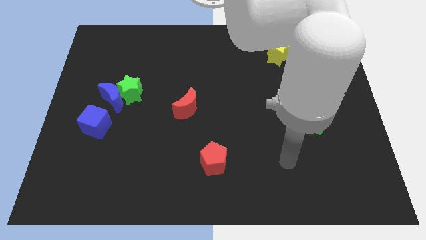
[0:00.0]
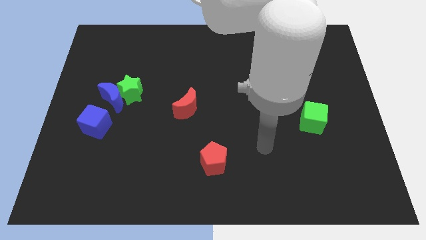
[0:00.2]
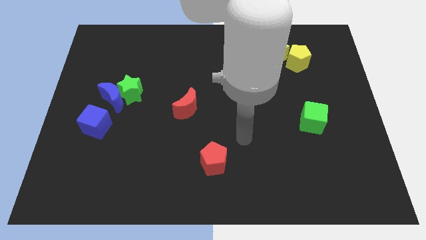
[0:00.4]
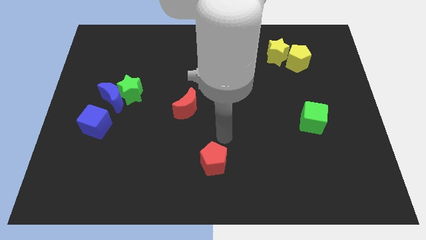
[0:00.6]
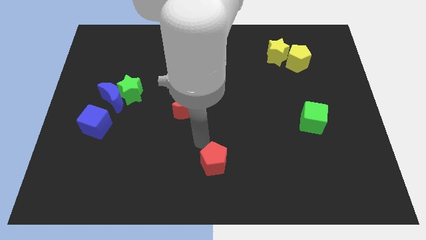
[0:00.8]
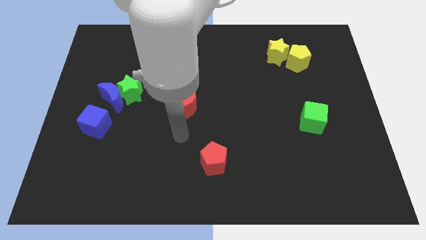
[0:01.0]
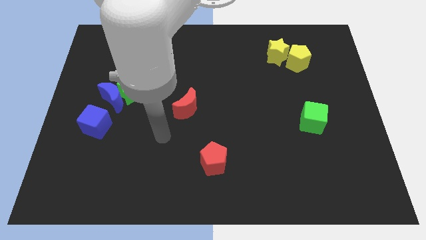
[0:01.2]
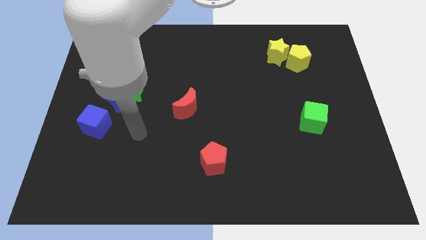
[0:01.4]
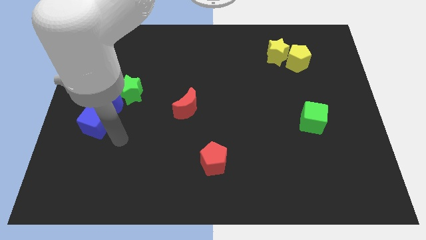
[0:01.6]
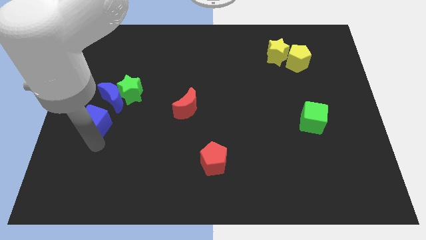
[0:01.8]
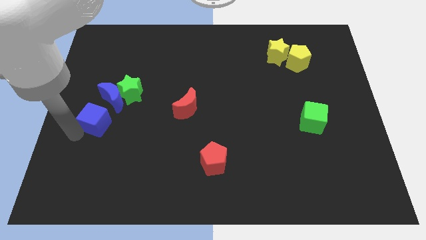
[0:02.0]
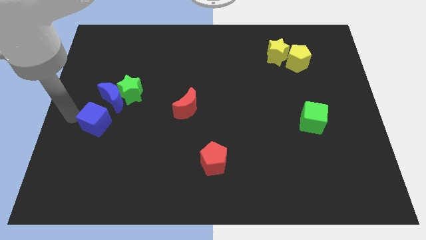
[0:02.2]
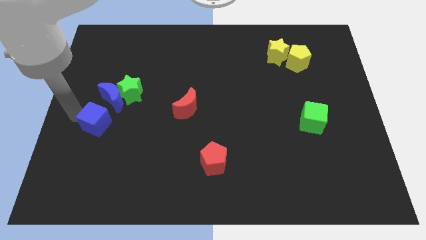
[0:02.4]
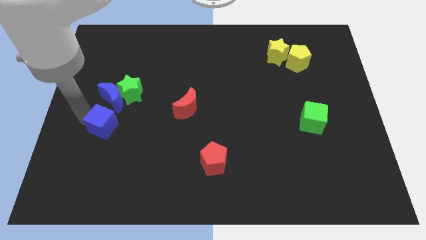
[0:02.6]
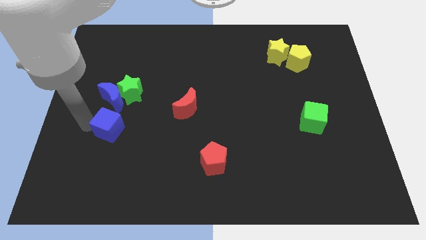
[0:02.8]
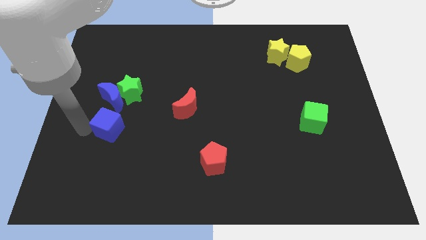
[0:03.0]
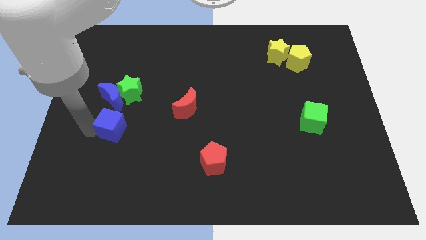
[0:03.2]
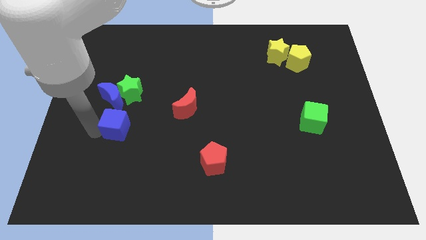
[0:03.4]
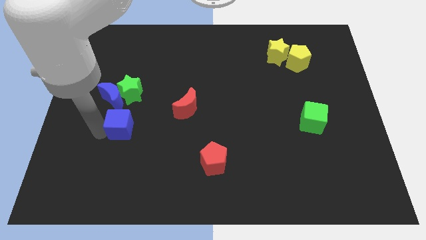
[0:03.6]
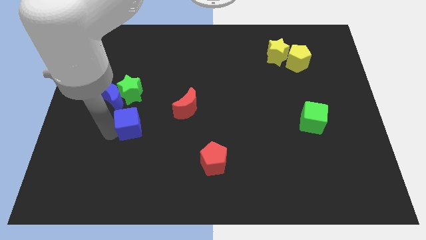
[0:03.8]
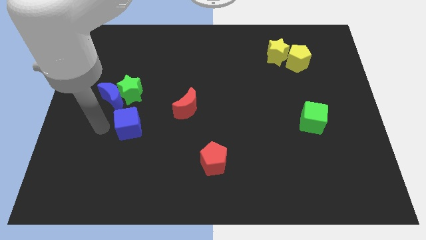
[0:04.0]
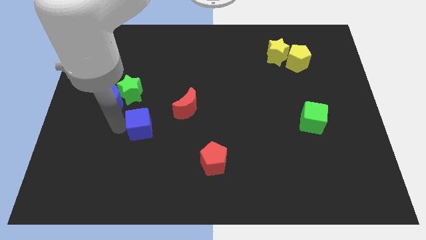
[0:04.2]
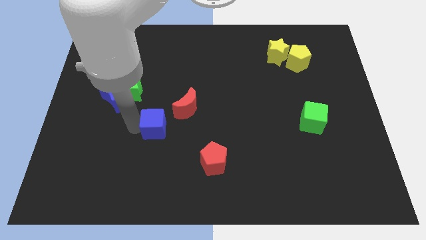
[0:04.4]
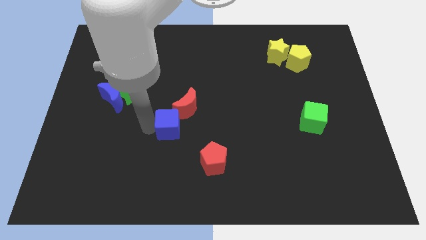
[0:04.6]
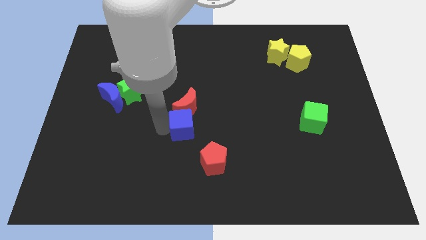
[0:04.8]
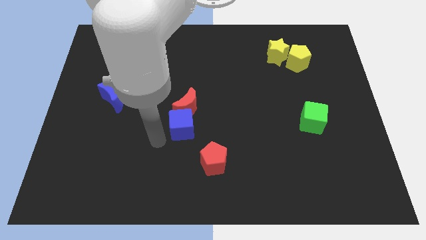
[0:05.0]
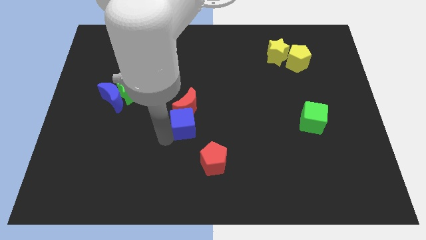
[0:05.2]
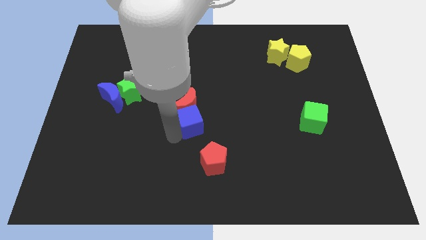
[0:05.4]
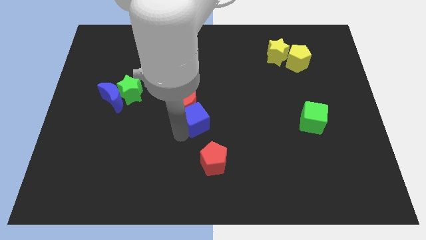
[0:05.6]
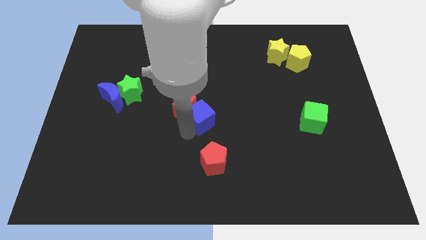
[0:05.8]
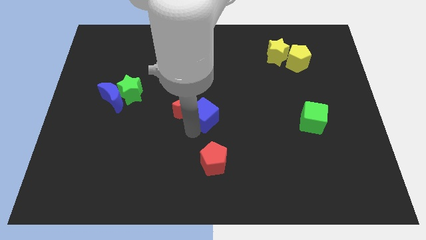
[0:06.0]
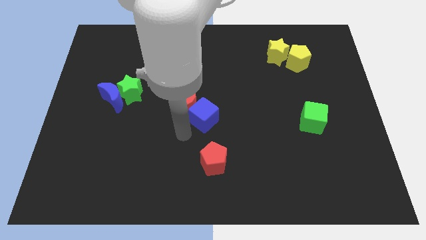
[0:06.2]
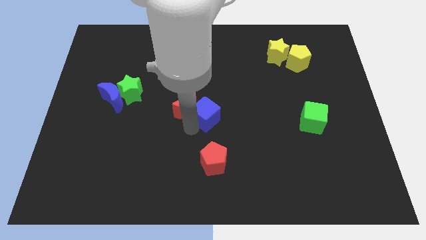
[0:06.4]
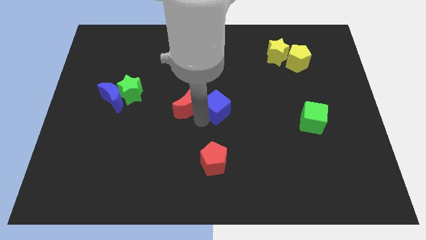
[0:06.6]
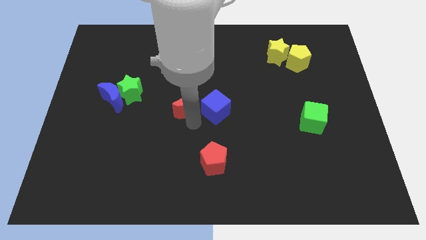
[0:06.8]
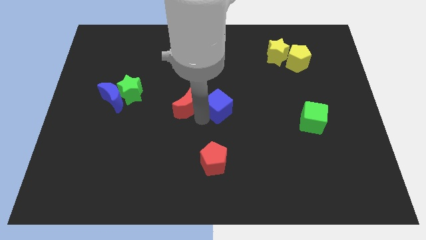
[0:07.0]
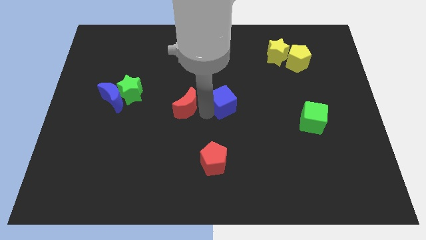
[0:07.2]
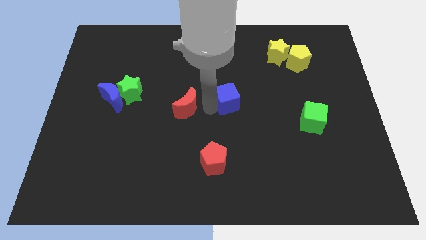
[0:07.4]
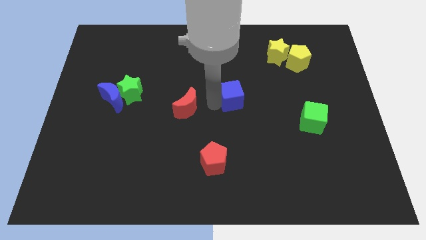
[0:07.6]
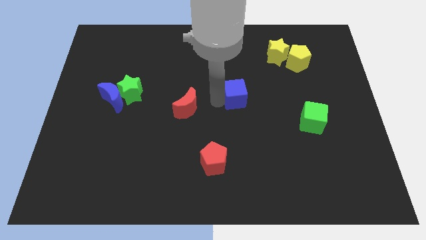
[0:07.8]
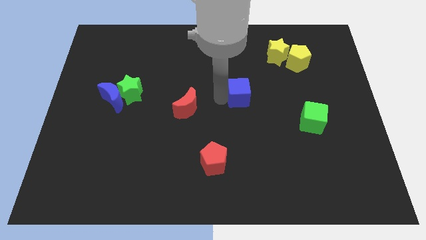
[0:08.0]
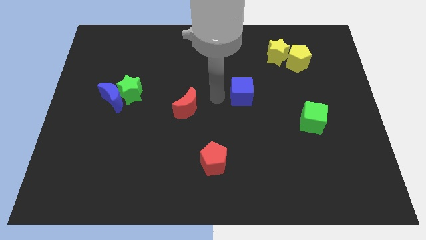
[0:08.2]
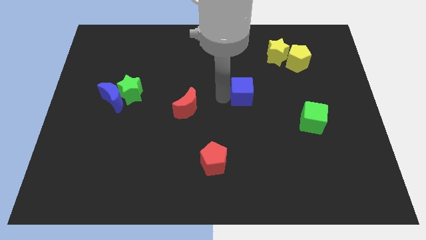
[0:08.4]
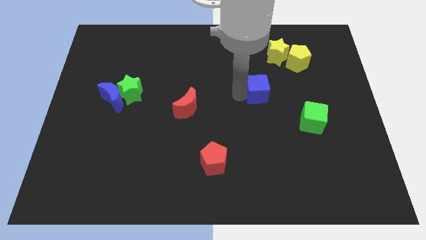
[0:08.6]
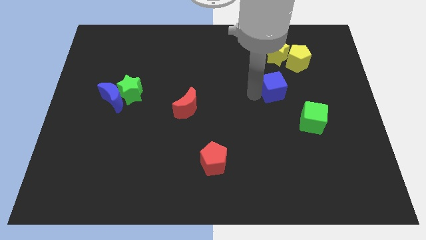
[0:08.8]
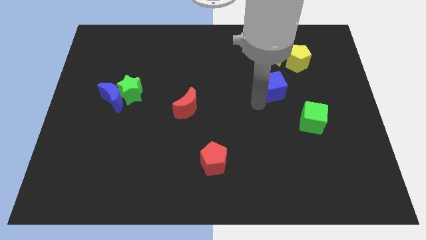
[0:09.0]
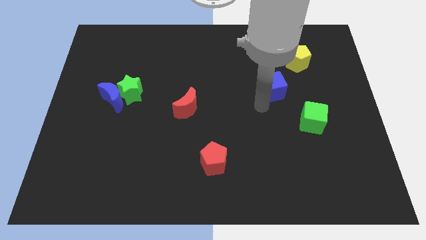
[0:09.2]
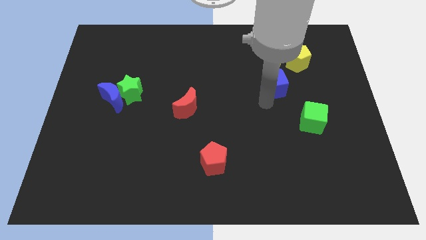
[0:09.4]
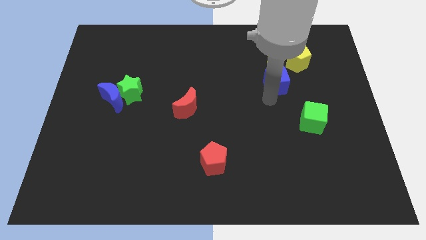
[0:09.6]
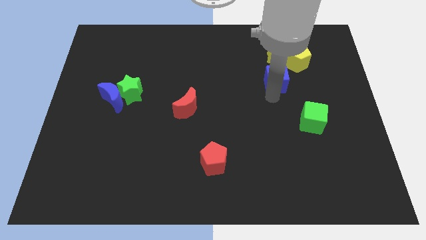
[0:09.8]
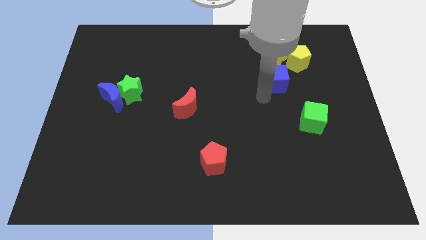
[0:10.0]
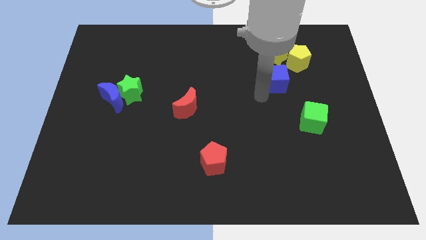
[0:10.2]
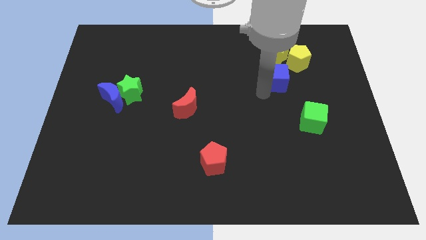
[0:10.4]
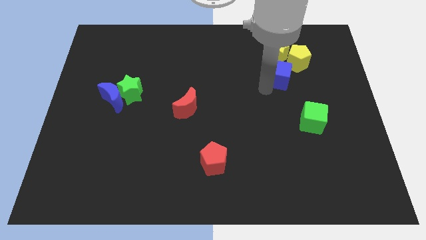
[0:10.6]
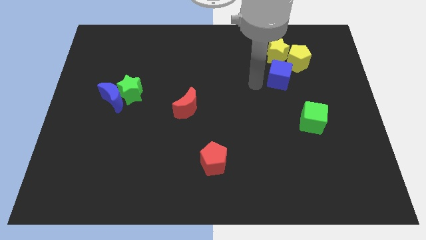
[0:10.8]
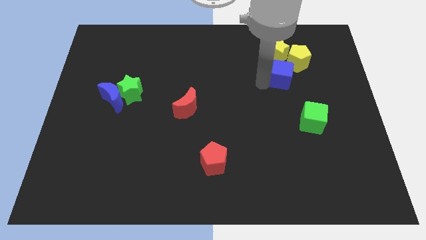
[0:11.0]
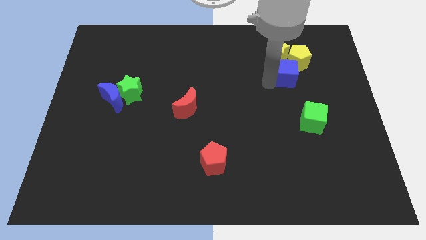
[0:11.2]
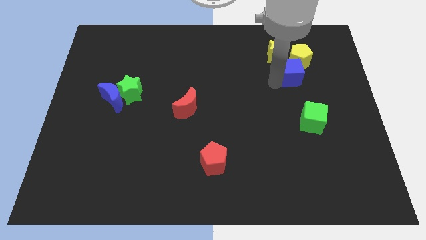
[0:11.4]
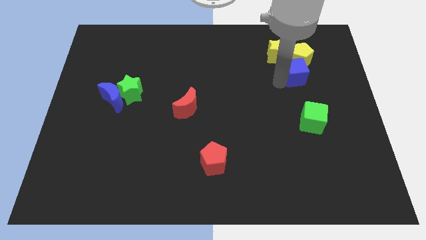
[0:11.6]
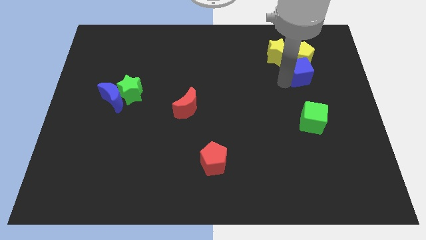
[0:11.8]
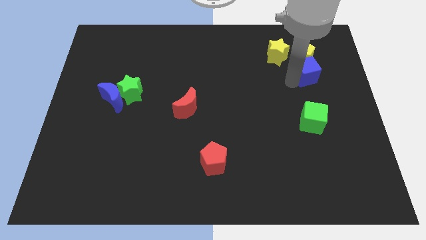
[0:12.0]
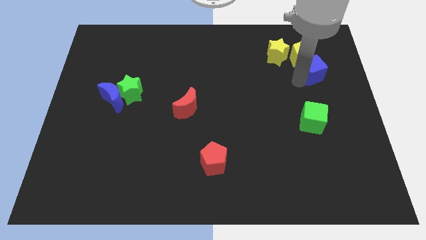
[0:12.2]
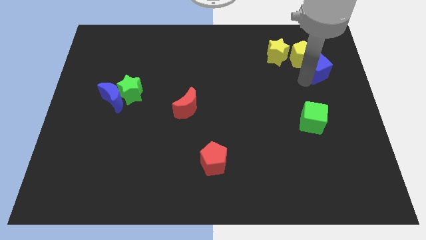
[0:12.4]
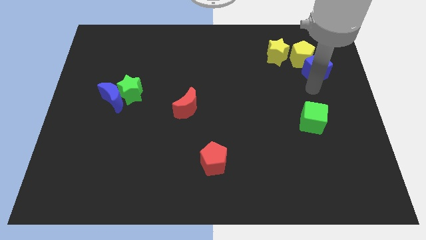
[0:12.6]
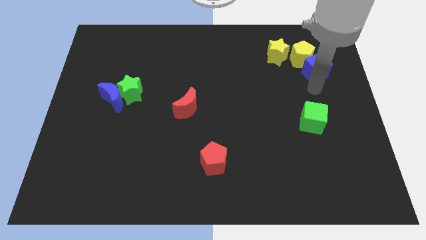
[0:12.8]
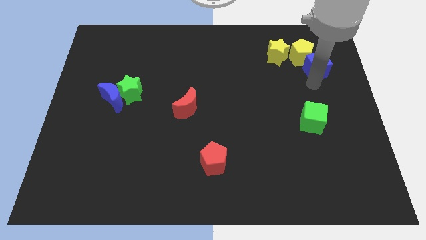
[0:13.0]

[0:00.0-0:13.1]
move the blue cube to the right of the yellow star
